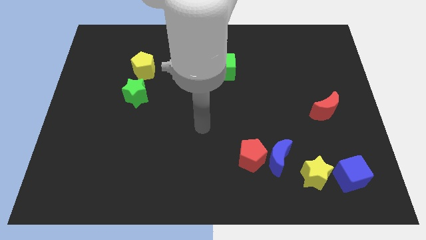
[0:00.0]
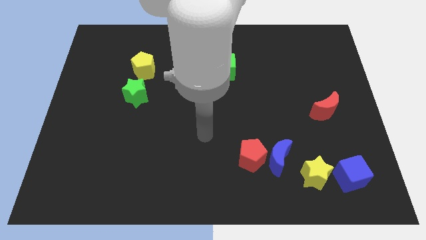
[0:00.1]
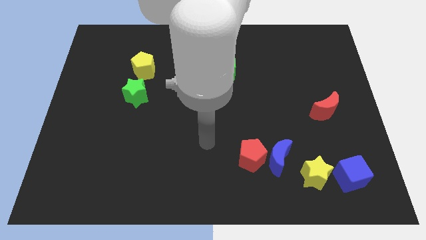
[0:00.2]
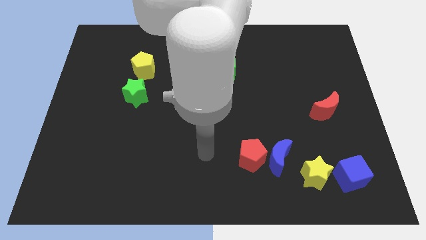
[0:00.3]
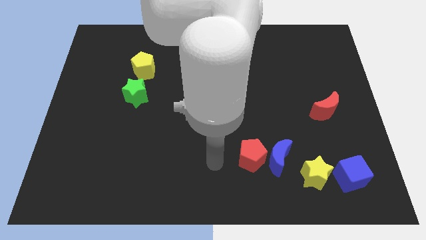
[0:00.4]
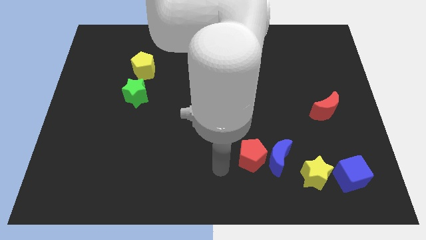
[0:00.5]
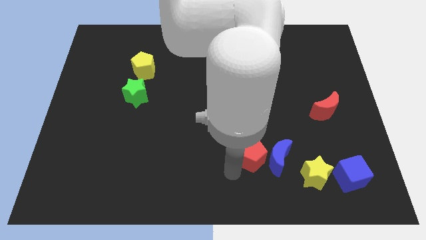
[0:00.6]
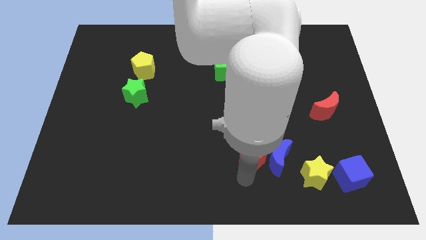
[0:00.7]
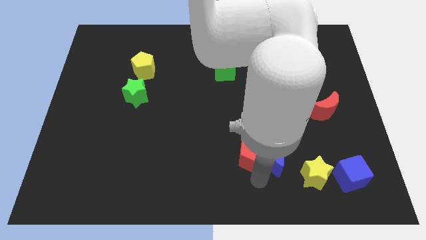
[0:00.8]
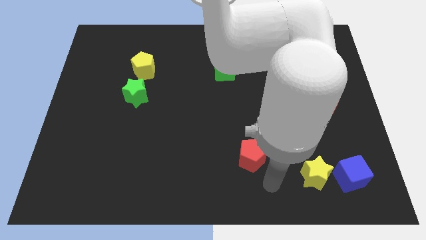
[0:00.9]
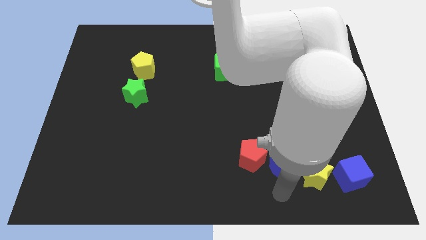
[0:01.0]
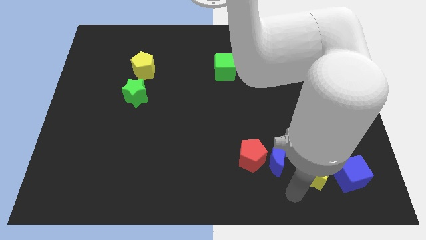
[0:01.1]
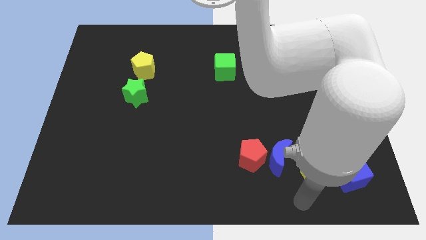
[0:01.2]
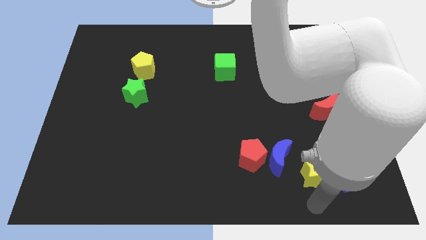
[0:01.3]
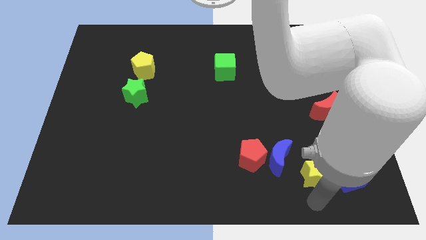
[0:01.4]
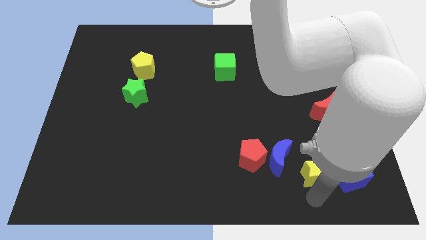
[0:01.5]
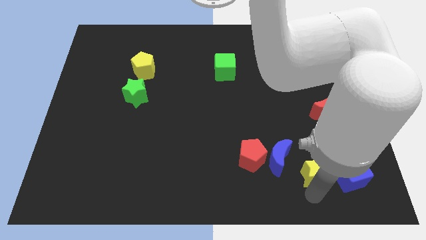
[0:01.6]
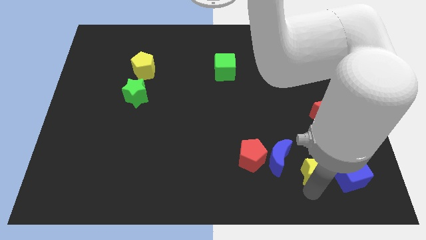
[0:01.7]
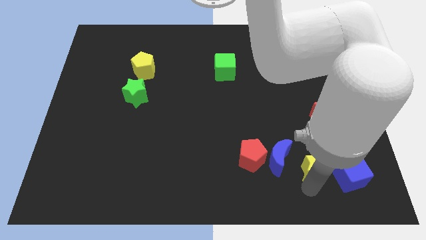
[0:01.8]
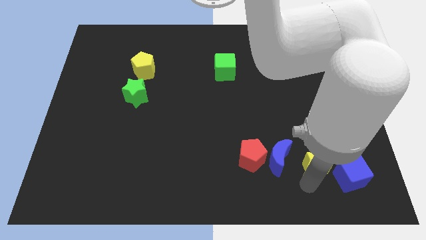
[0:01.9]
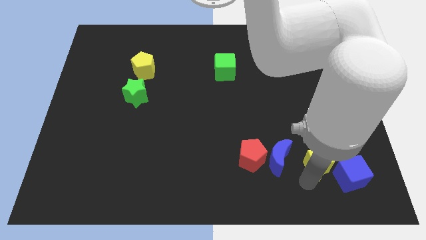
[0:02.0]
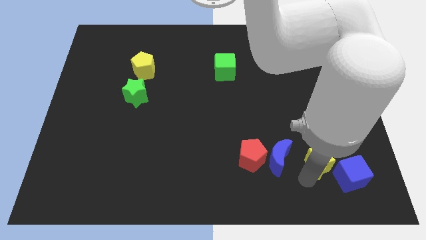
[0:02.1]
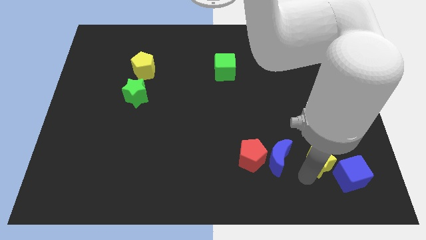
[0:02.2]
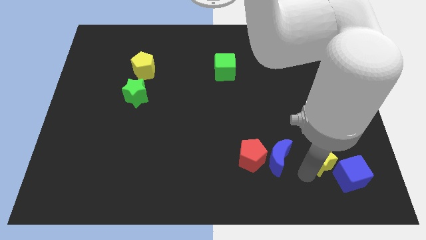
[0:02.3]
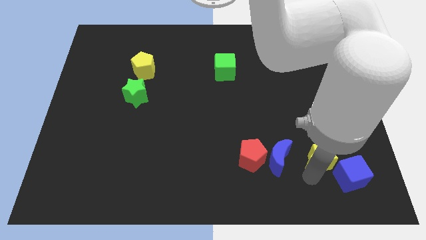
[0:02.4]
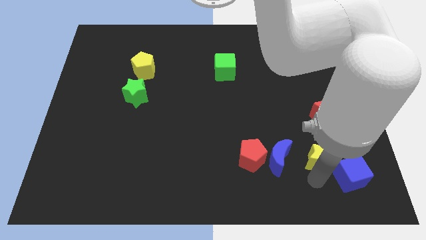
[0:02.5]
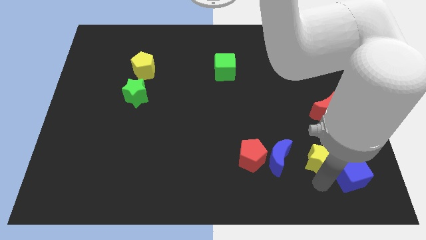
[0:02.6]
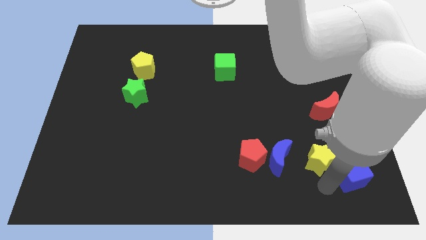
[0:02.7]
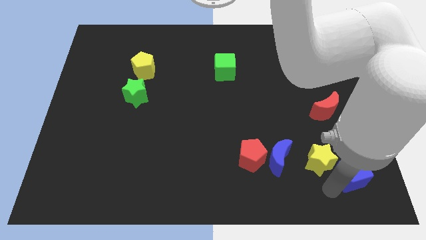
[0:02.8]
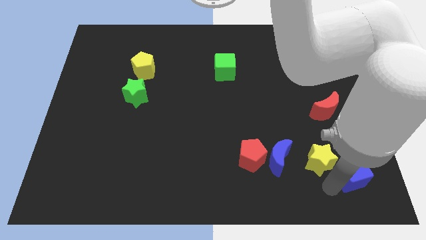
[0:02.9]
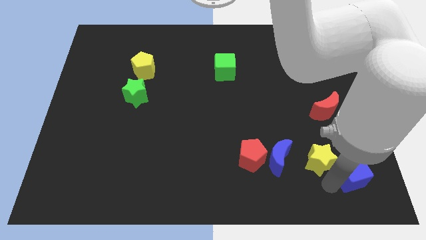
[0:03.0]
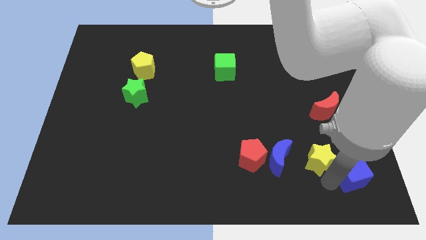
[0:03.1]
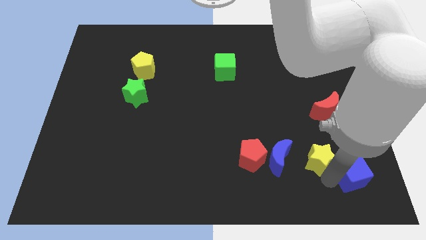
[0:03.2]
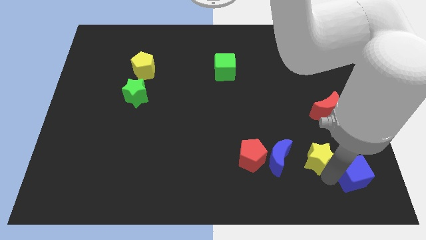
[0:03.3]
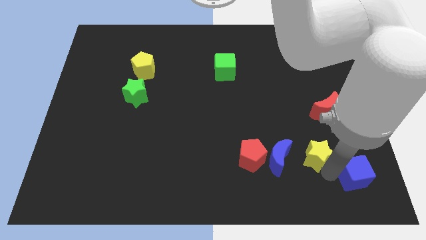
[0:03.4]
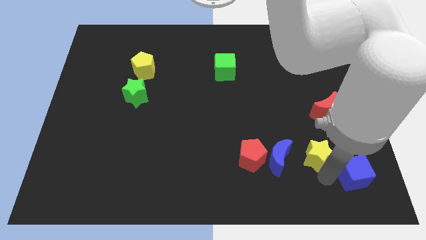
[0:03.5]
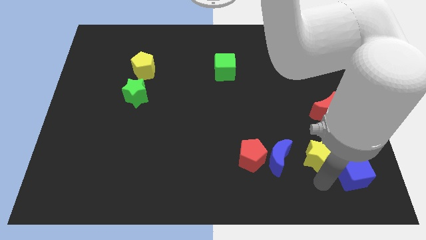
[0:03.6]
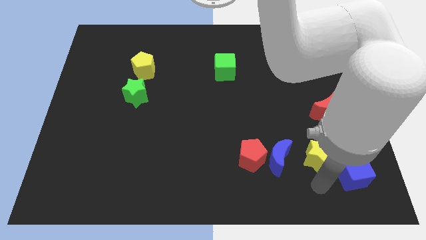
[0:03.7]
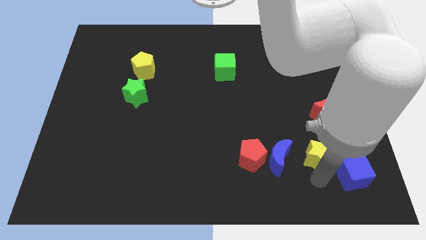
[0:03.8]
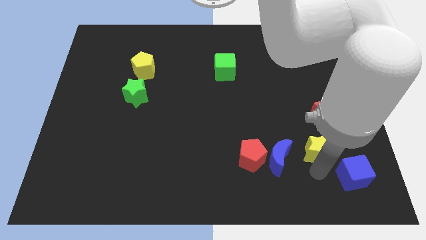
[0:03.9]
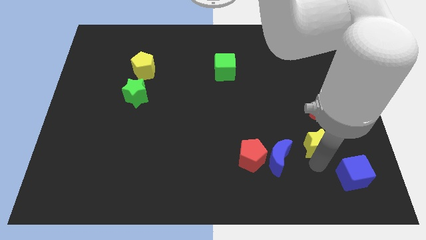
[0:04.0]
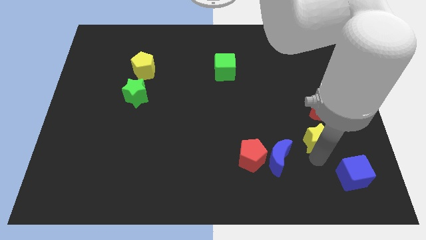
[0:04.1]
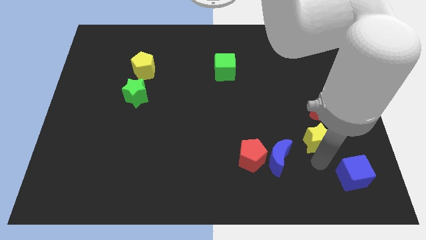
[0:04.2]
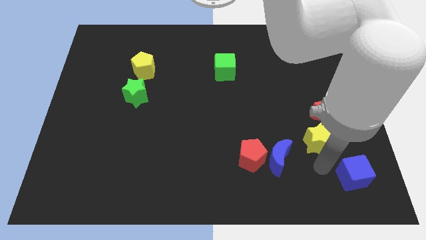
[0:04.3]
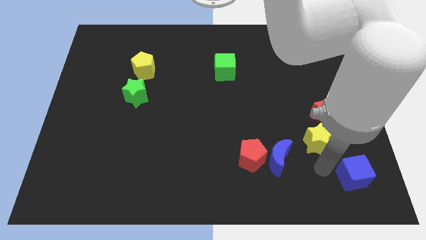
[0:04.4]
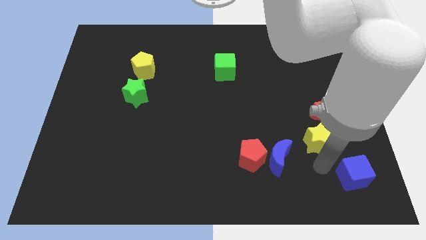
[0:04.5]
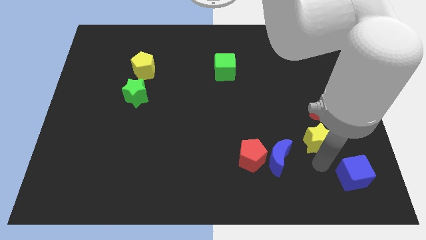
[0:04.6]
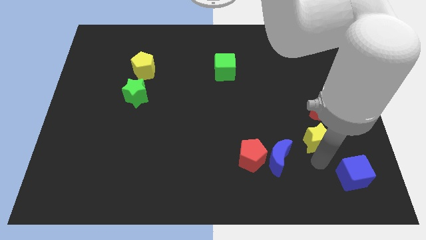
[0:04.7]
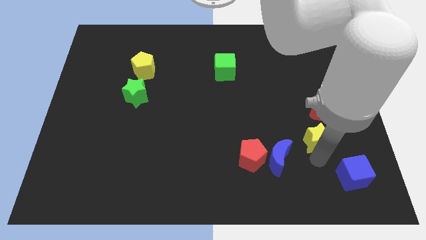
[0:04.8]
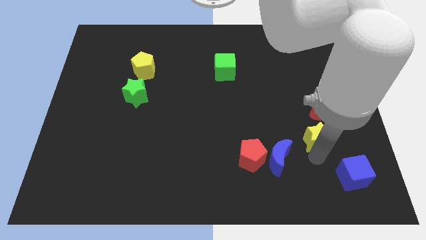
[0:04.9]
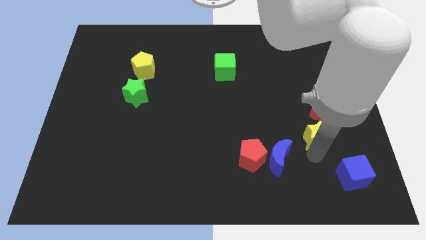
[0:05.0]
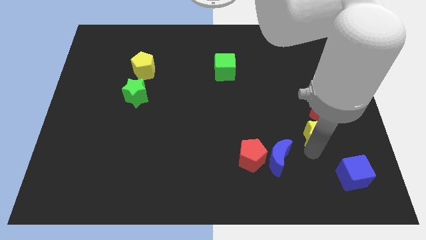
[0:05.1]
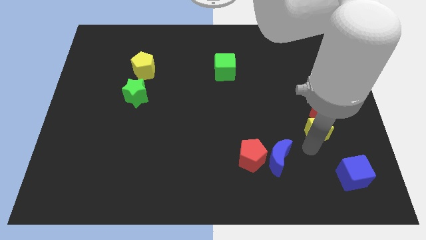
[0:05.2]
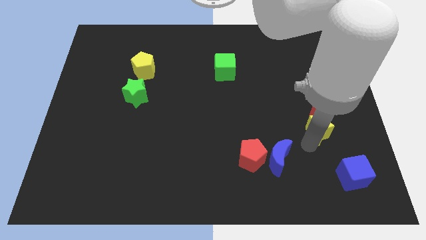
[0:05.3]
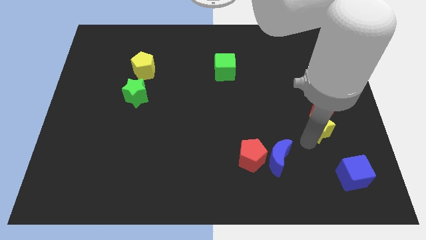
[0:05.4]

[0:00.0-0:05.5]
slide the yellow star next to the red moon

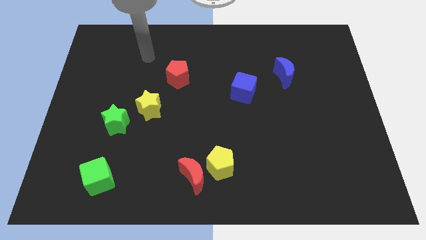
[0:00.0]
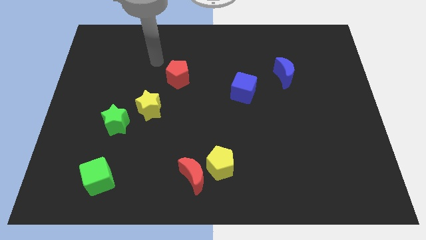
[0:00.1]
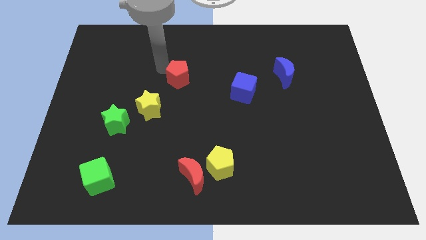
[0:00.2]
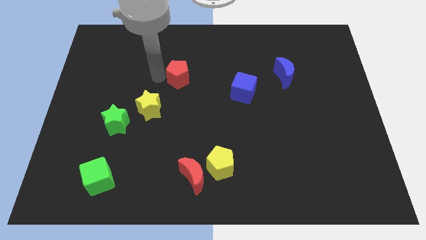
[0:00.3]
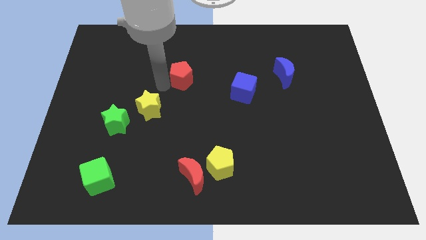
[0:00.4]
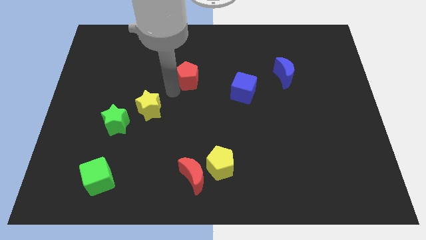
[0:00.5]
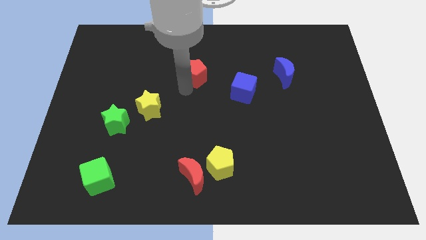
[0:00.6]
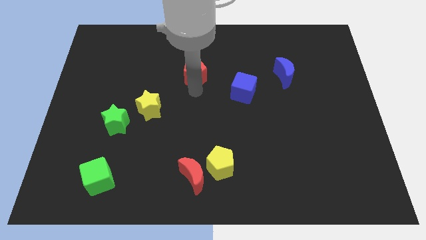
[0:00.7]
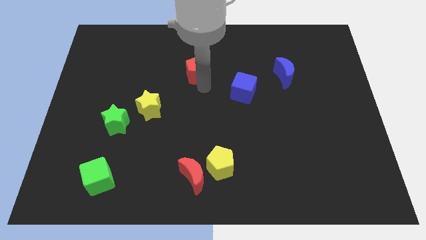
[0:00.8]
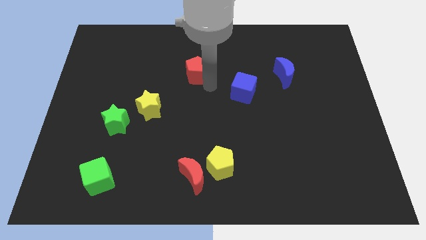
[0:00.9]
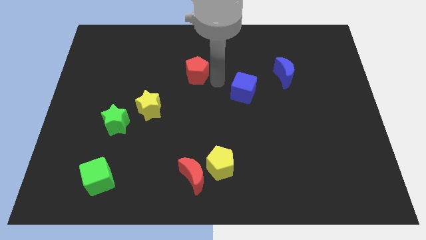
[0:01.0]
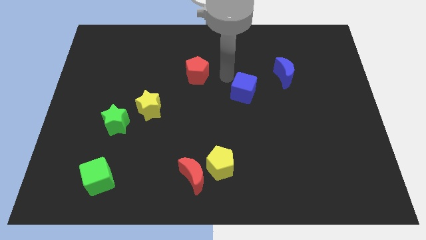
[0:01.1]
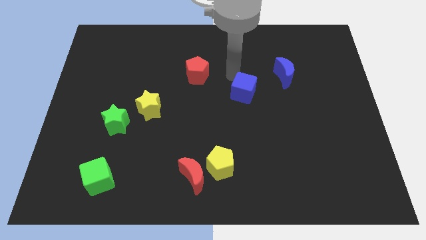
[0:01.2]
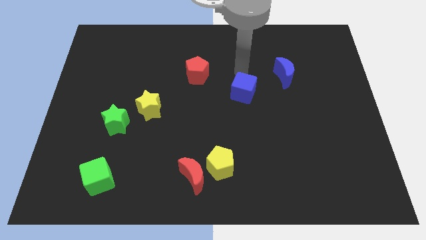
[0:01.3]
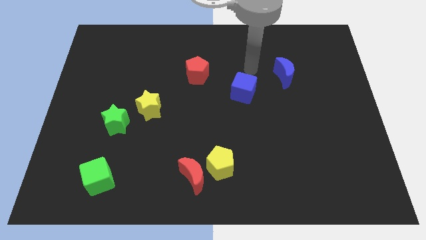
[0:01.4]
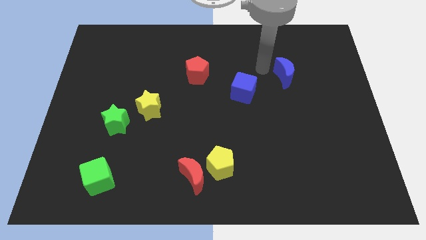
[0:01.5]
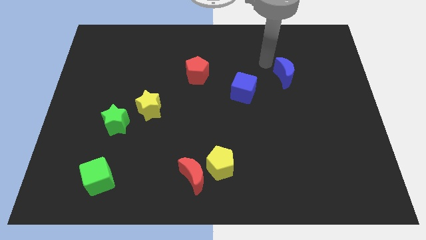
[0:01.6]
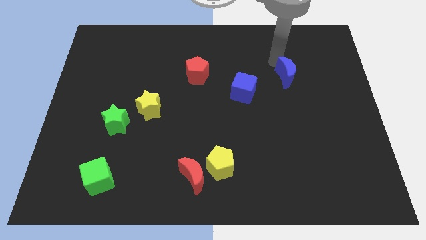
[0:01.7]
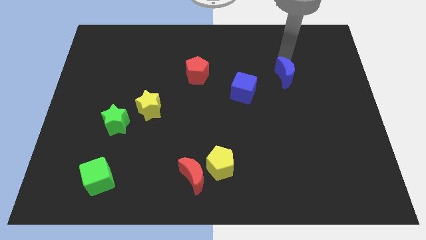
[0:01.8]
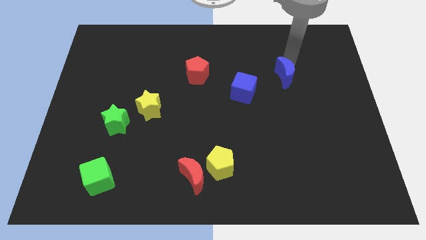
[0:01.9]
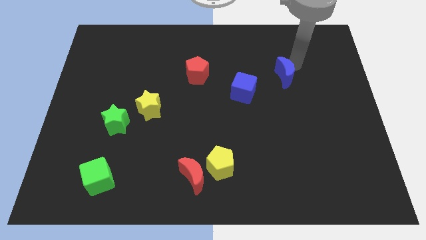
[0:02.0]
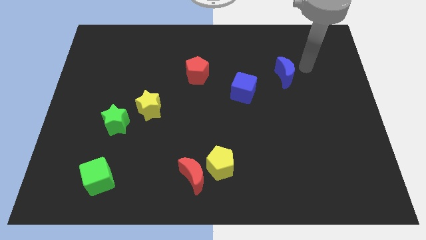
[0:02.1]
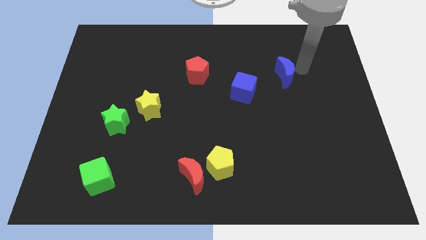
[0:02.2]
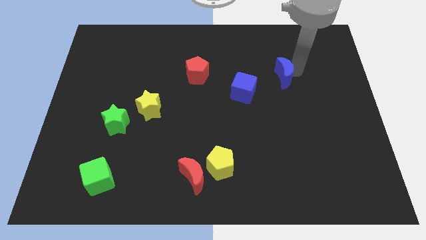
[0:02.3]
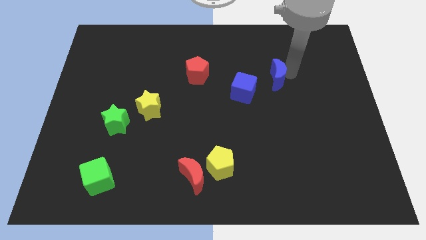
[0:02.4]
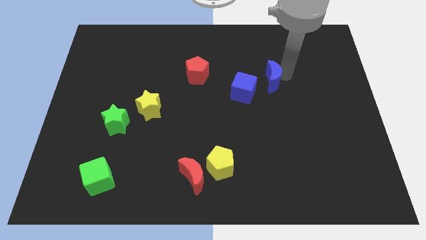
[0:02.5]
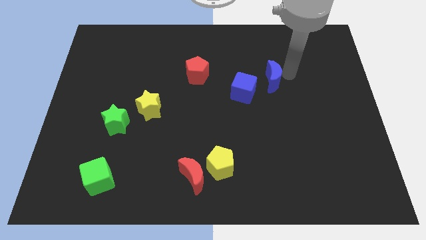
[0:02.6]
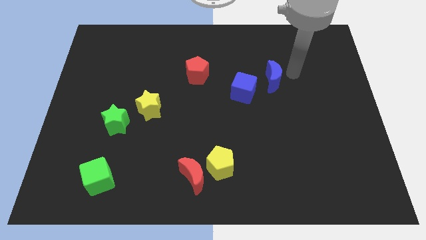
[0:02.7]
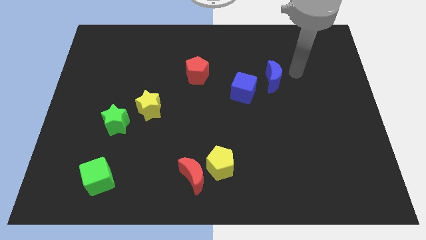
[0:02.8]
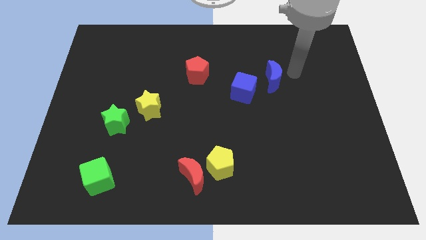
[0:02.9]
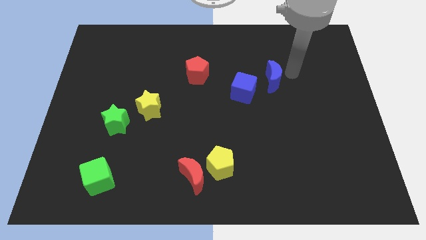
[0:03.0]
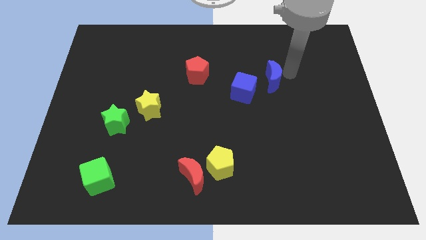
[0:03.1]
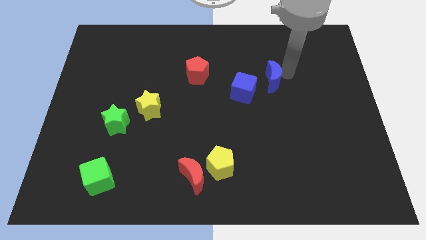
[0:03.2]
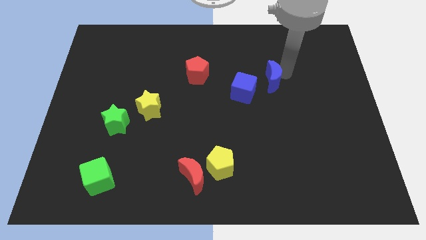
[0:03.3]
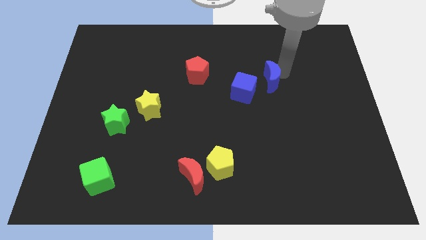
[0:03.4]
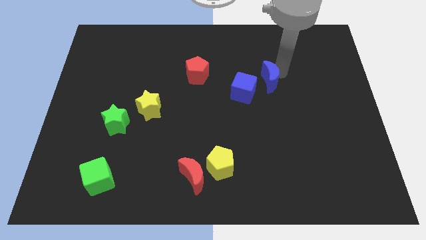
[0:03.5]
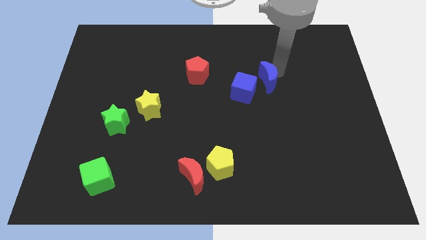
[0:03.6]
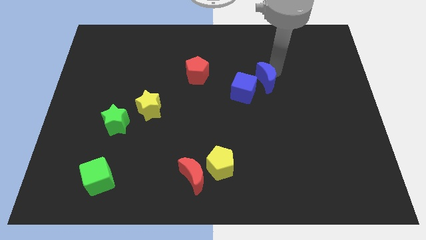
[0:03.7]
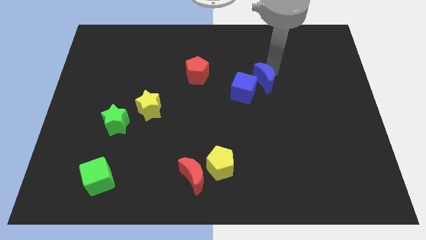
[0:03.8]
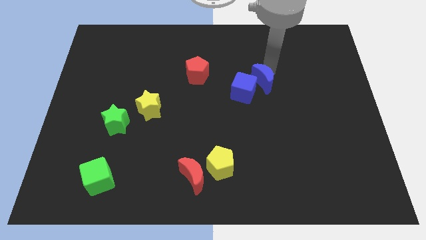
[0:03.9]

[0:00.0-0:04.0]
put the blue moon close to the blue cube
